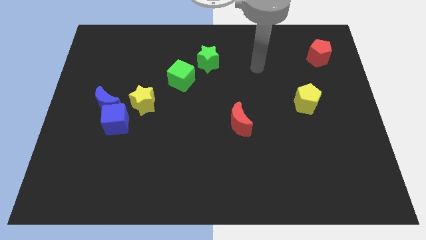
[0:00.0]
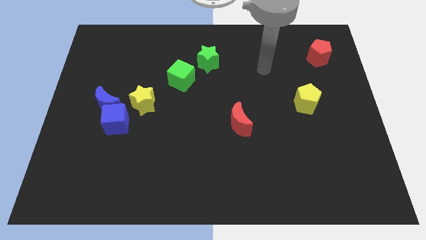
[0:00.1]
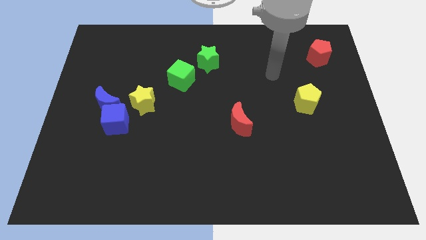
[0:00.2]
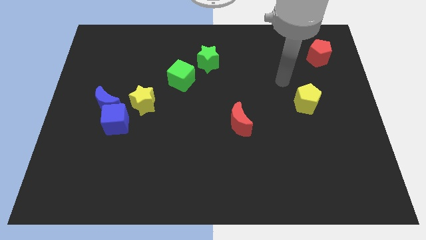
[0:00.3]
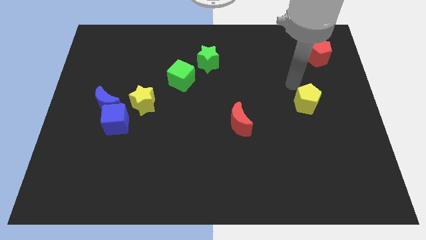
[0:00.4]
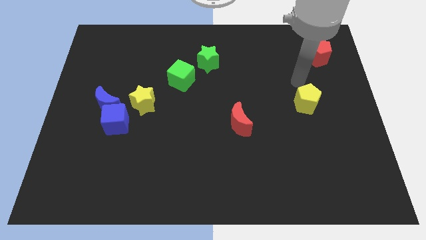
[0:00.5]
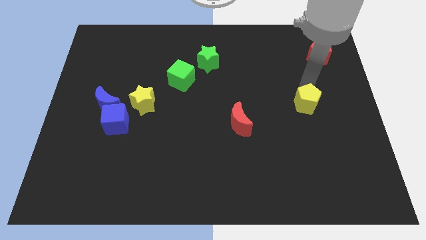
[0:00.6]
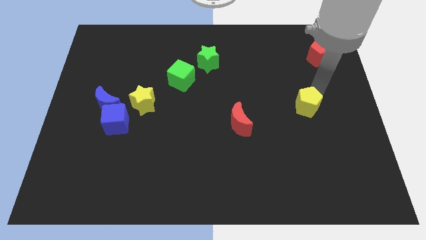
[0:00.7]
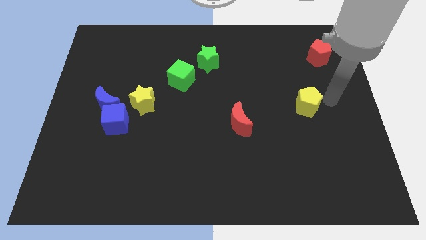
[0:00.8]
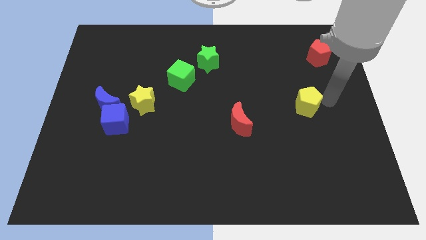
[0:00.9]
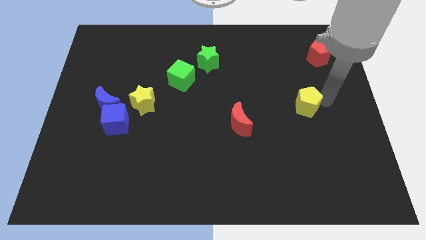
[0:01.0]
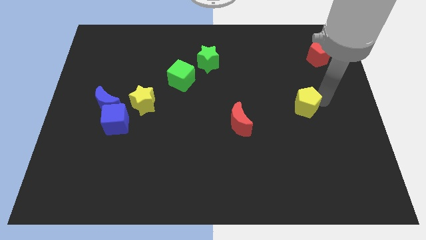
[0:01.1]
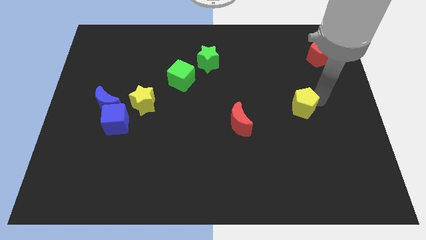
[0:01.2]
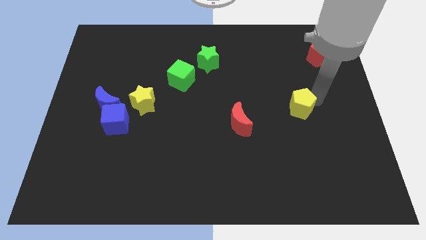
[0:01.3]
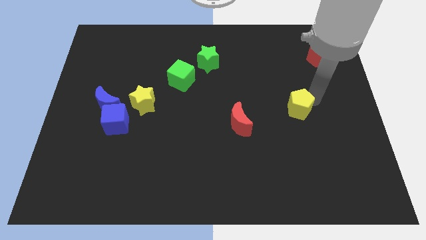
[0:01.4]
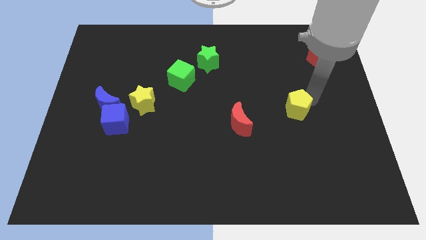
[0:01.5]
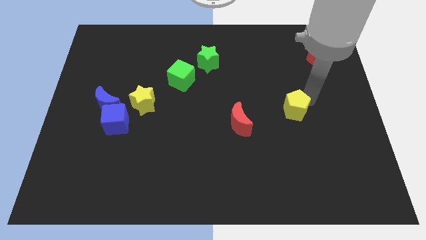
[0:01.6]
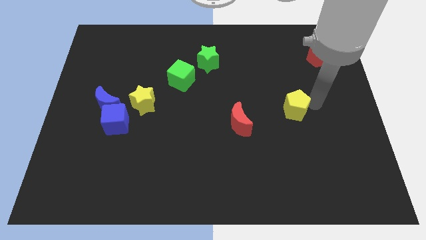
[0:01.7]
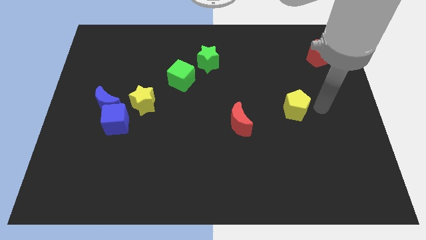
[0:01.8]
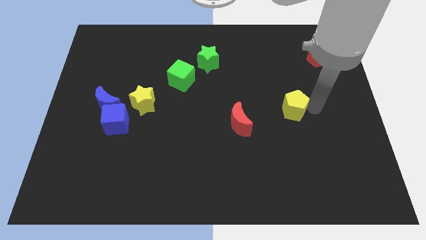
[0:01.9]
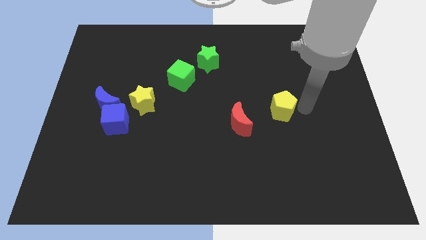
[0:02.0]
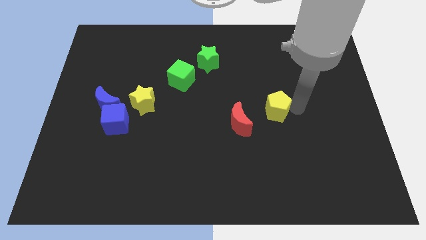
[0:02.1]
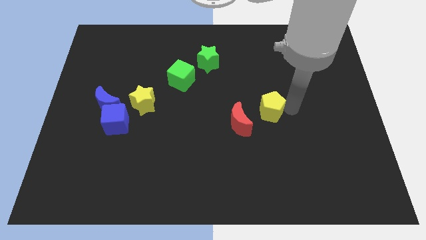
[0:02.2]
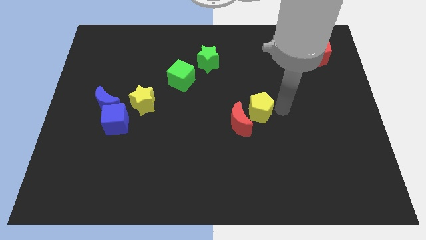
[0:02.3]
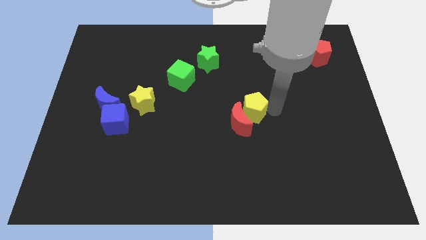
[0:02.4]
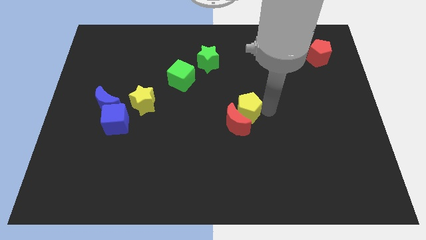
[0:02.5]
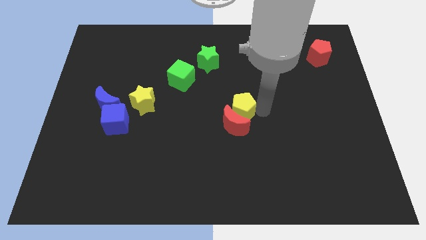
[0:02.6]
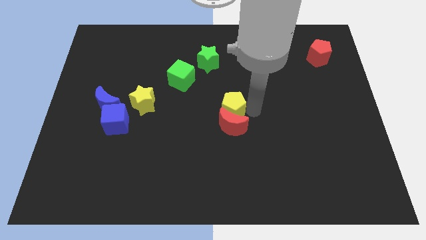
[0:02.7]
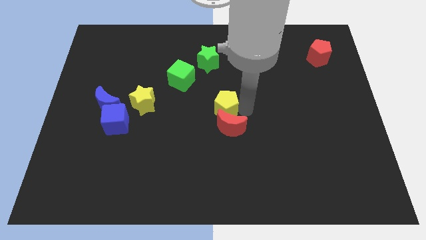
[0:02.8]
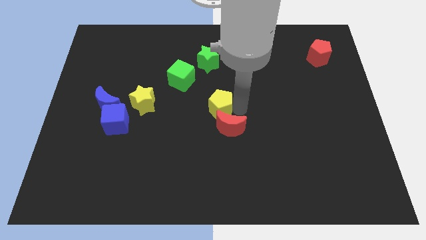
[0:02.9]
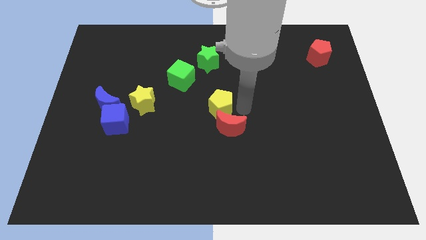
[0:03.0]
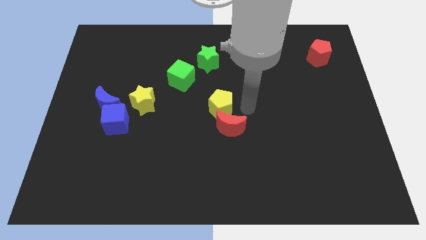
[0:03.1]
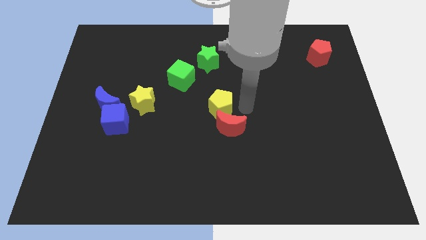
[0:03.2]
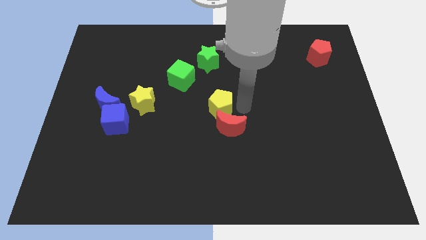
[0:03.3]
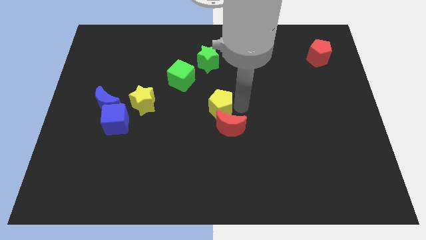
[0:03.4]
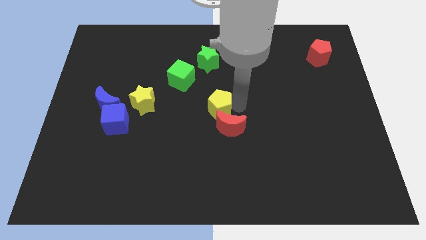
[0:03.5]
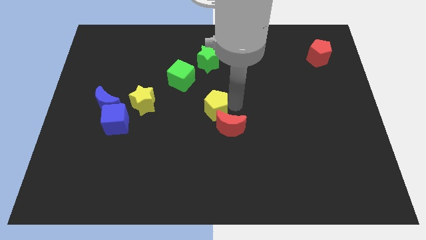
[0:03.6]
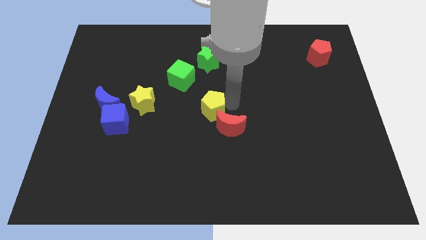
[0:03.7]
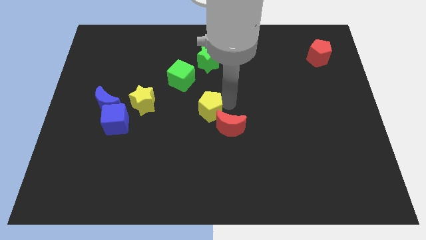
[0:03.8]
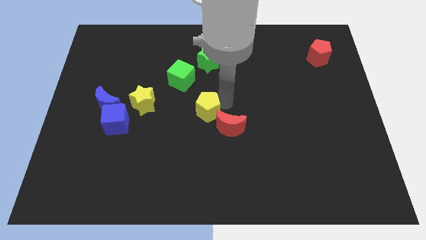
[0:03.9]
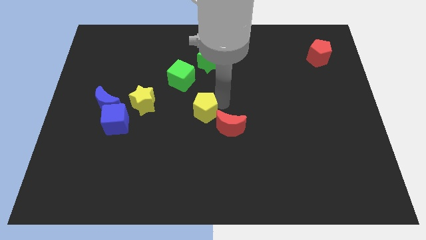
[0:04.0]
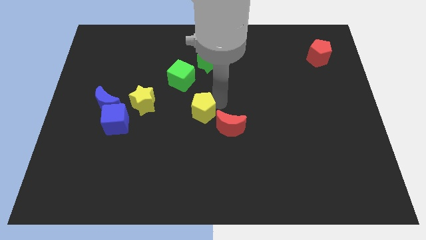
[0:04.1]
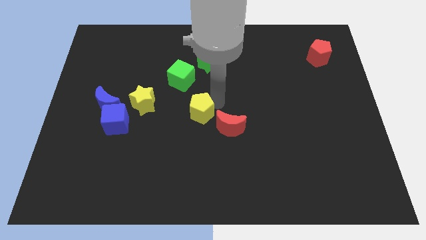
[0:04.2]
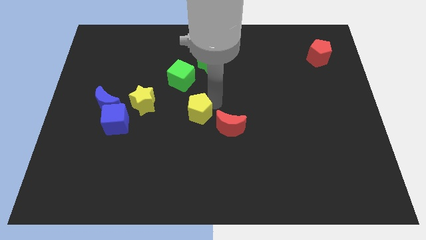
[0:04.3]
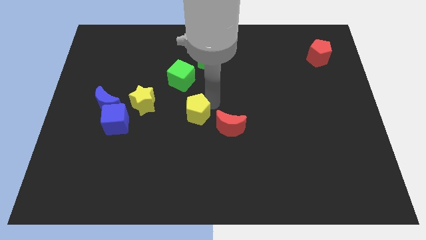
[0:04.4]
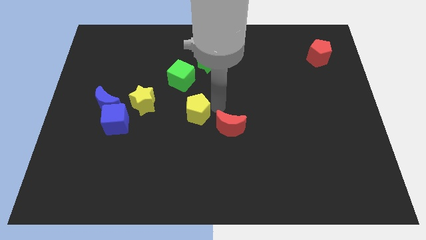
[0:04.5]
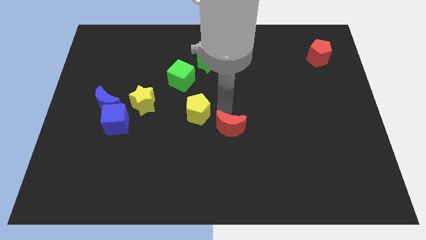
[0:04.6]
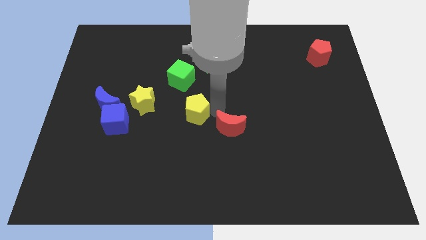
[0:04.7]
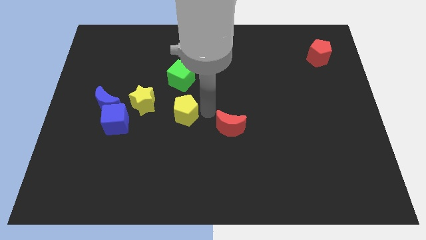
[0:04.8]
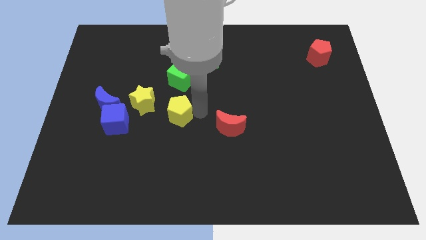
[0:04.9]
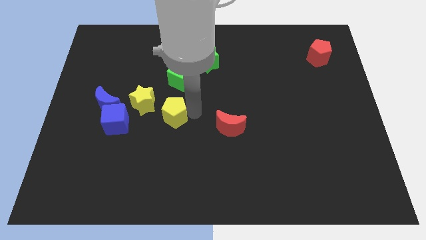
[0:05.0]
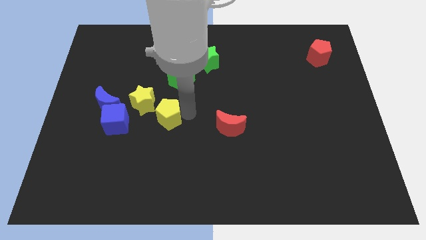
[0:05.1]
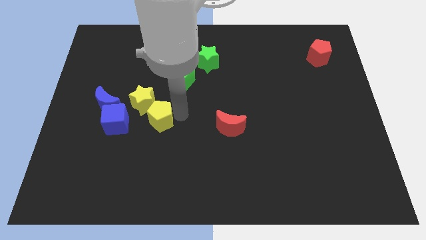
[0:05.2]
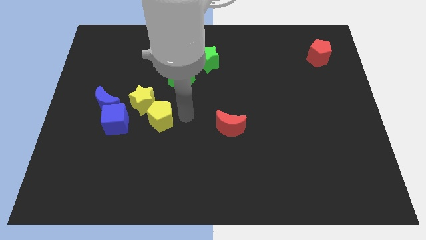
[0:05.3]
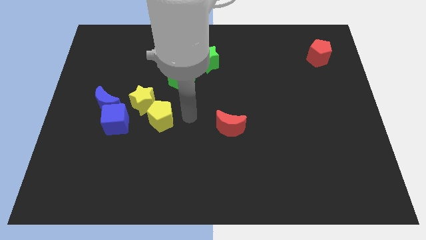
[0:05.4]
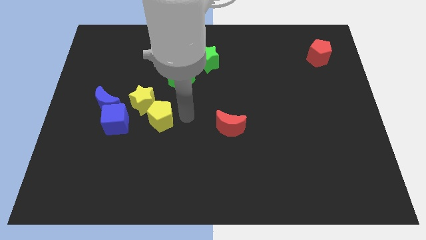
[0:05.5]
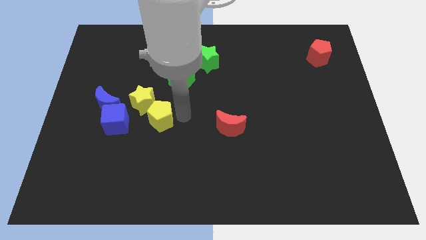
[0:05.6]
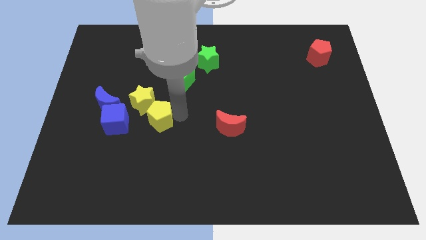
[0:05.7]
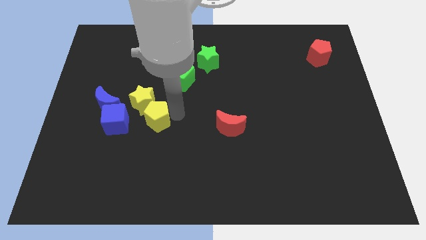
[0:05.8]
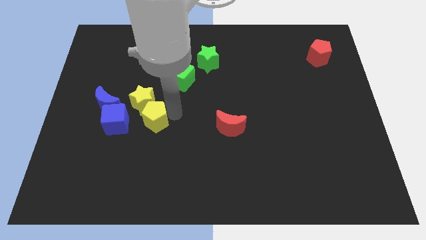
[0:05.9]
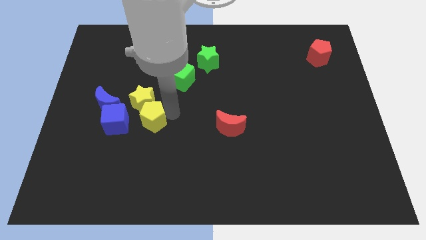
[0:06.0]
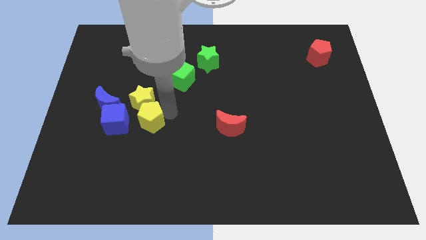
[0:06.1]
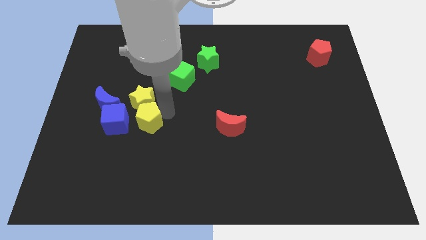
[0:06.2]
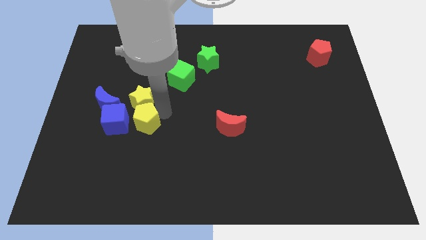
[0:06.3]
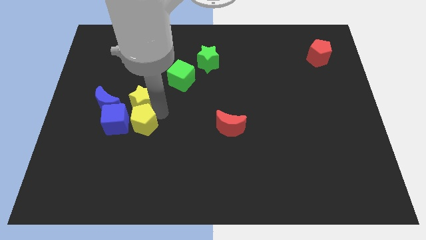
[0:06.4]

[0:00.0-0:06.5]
put the yellow pentagon next to the blue cube

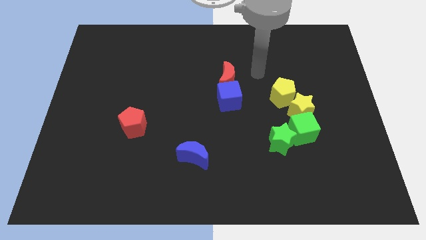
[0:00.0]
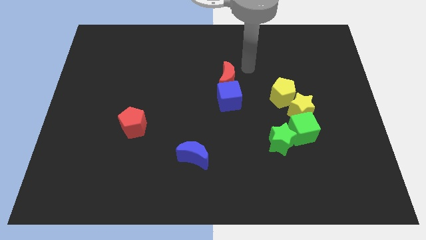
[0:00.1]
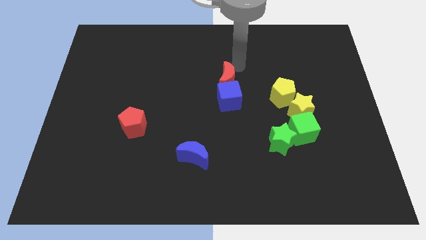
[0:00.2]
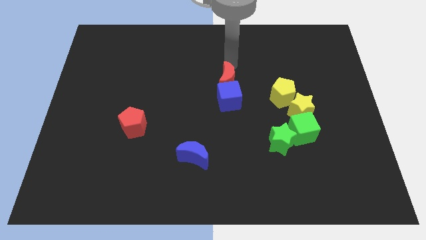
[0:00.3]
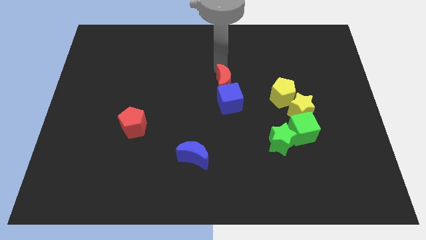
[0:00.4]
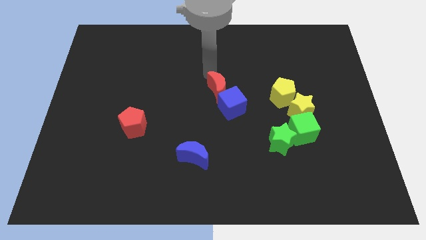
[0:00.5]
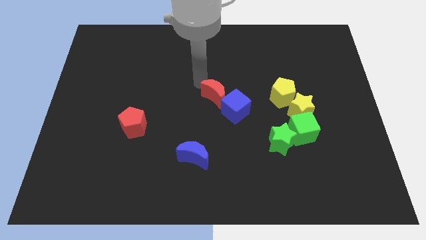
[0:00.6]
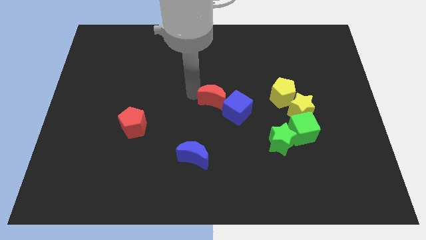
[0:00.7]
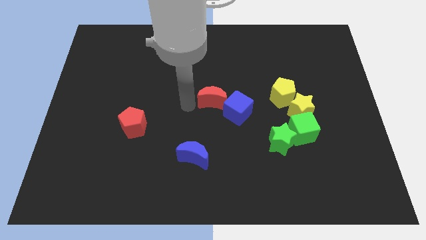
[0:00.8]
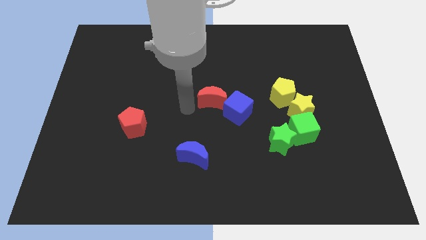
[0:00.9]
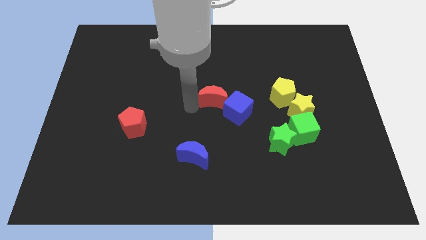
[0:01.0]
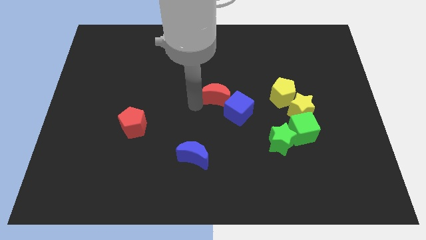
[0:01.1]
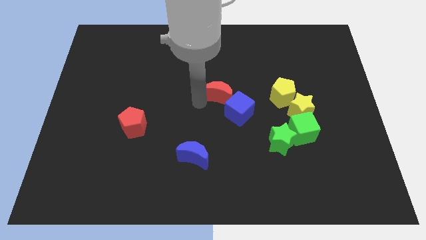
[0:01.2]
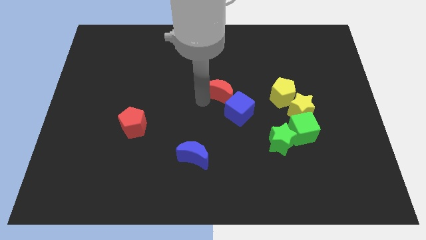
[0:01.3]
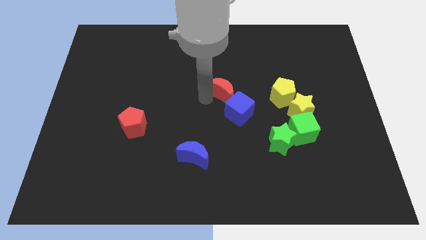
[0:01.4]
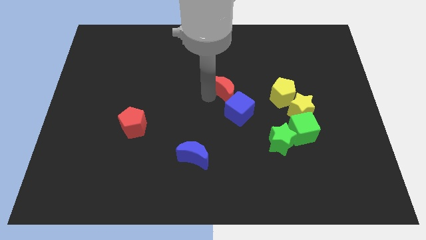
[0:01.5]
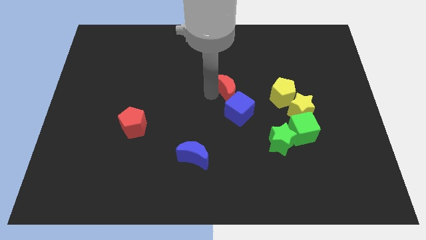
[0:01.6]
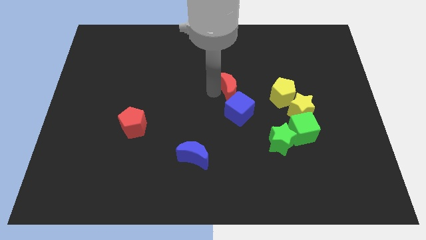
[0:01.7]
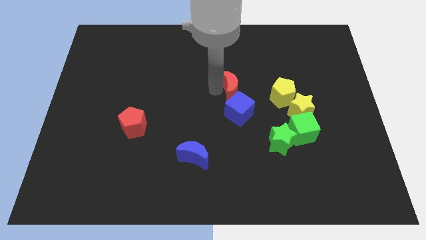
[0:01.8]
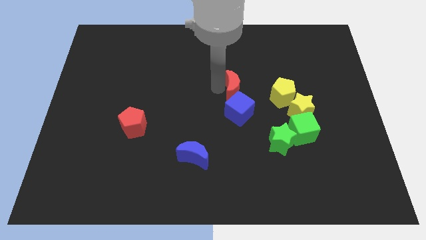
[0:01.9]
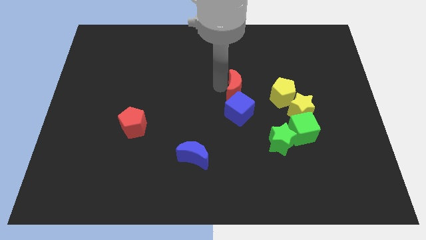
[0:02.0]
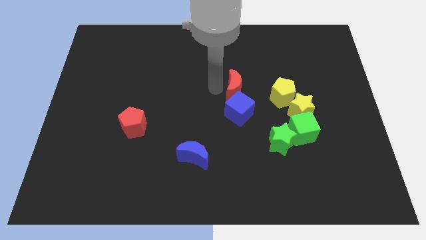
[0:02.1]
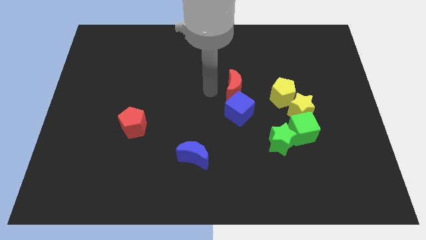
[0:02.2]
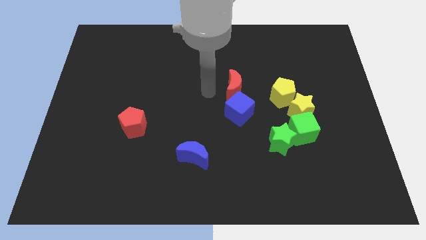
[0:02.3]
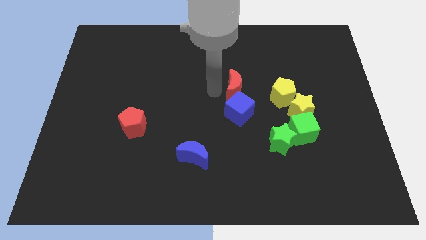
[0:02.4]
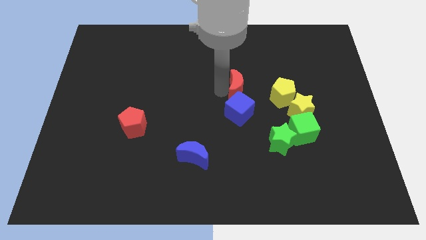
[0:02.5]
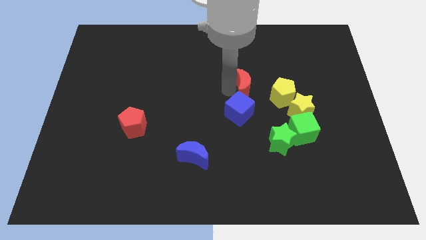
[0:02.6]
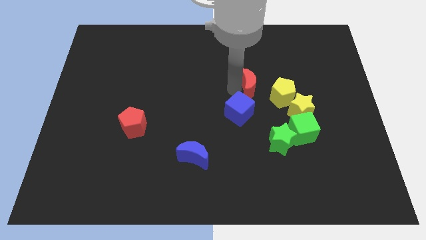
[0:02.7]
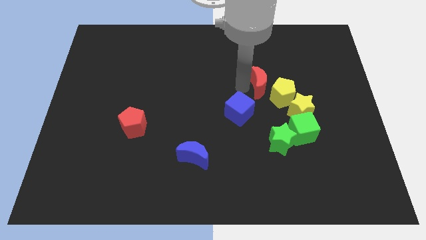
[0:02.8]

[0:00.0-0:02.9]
push the red moon close to the yellow pentagon
